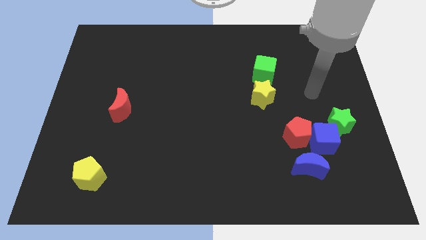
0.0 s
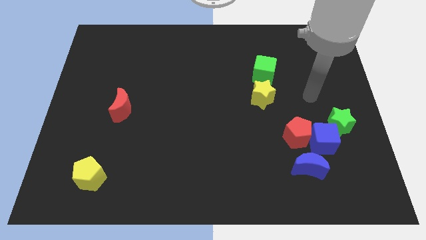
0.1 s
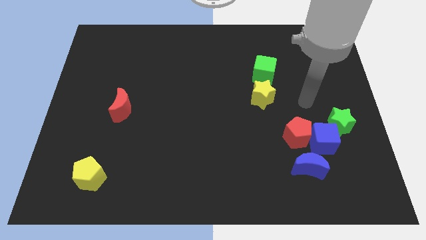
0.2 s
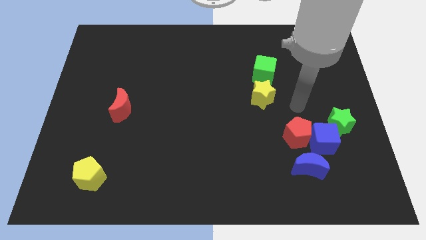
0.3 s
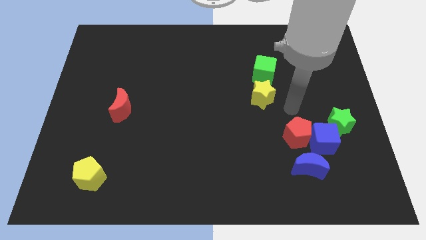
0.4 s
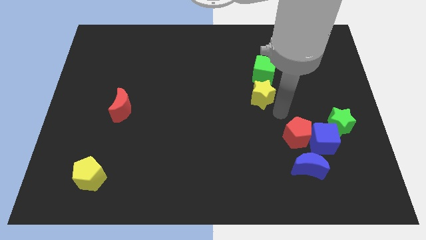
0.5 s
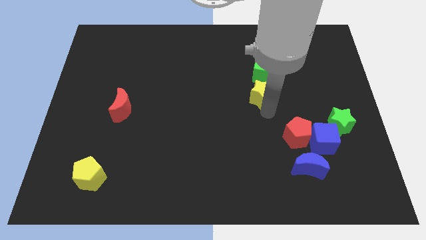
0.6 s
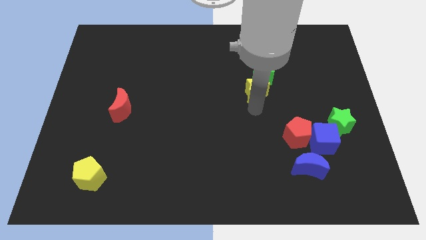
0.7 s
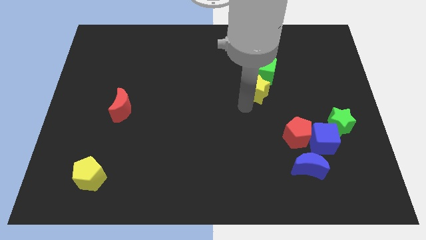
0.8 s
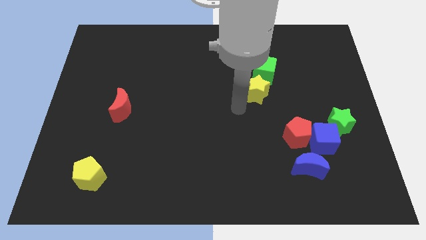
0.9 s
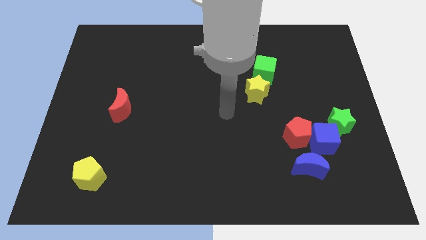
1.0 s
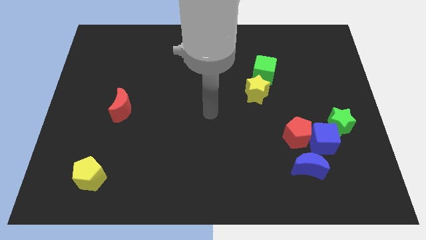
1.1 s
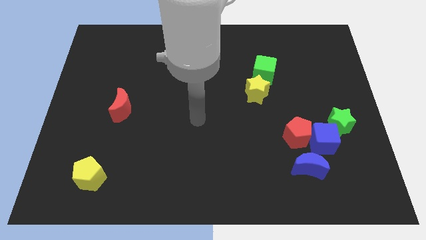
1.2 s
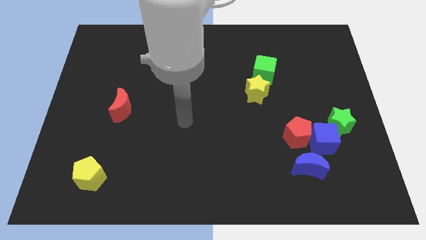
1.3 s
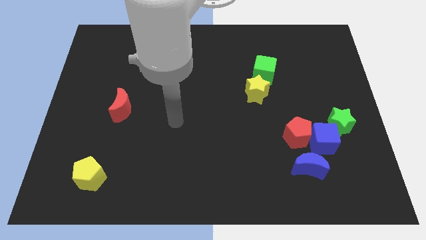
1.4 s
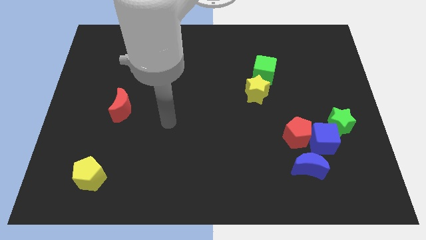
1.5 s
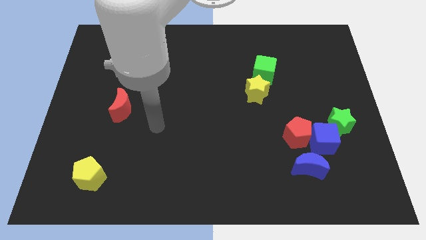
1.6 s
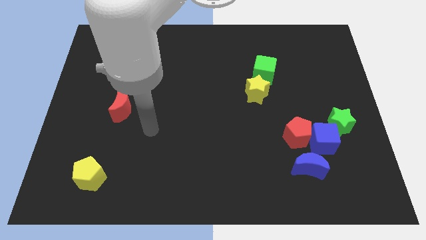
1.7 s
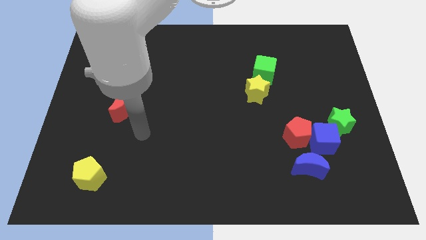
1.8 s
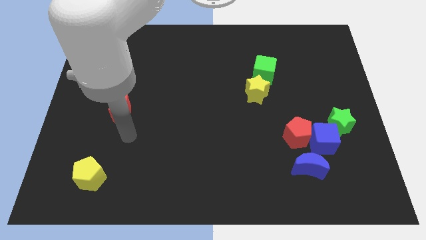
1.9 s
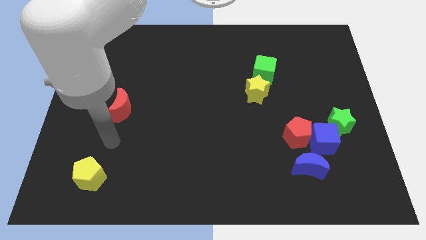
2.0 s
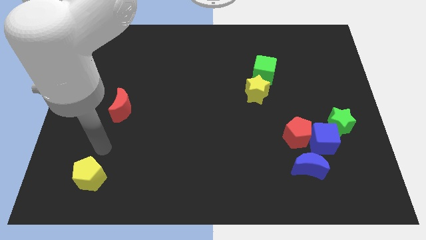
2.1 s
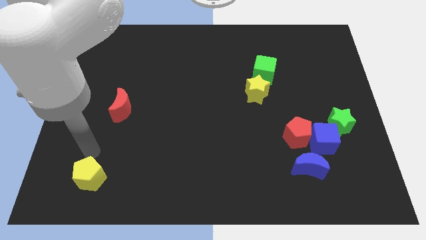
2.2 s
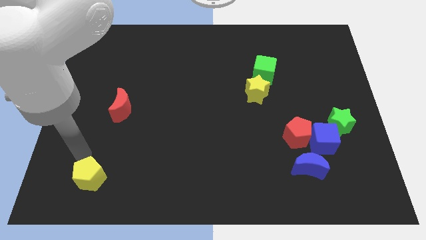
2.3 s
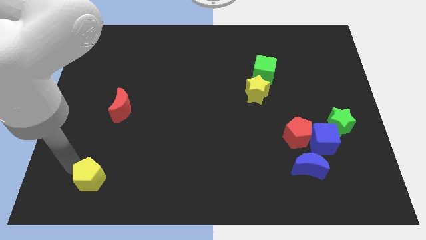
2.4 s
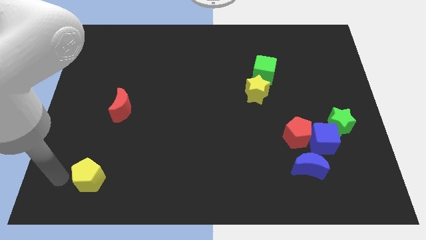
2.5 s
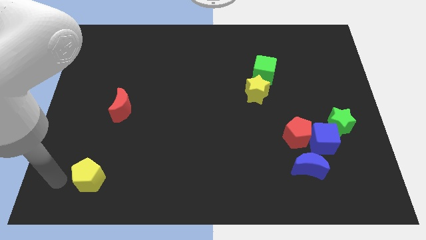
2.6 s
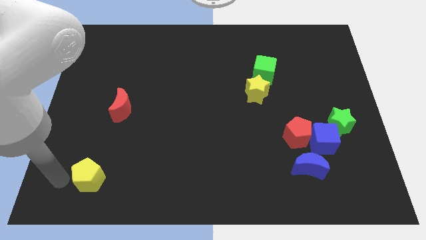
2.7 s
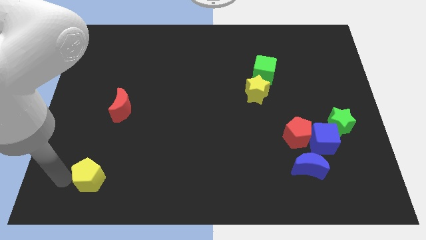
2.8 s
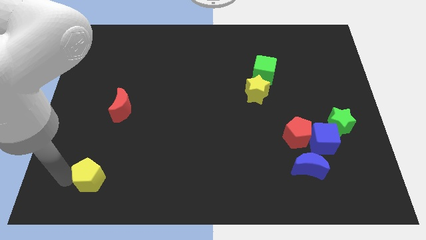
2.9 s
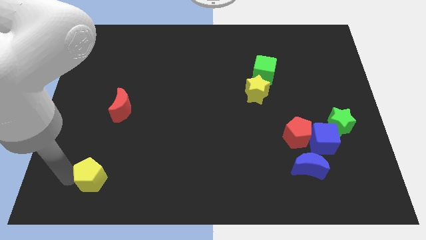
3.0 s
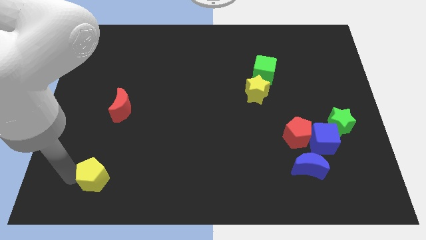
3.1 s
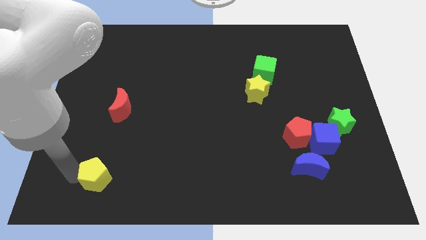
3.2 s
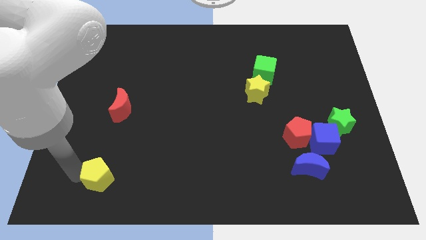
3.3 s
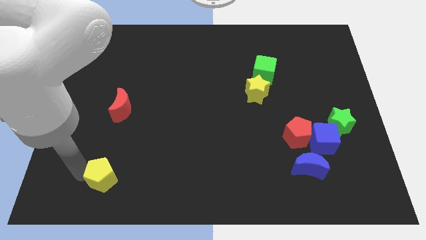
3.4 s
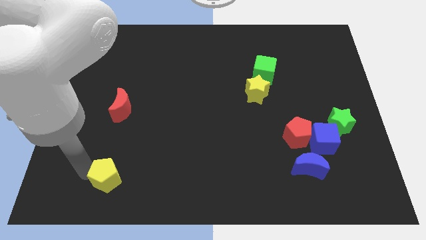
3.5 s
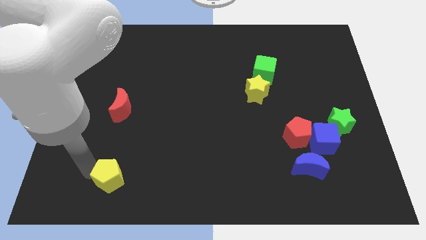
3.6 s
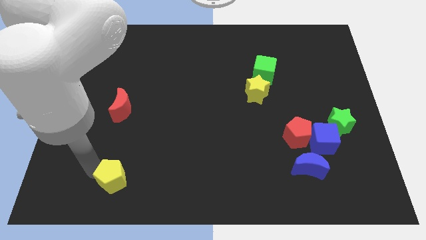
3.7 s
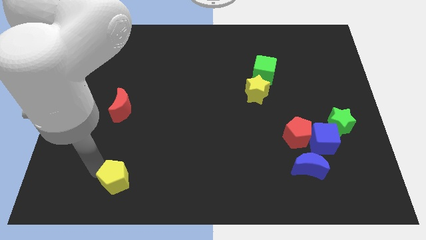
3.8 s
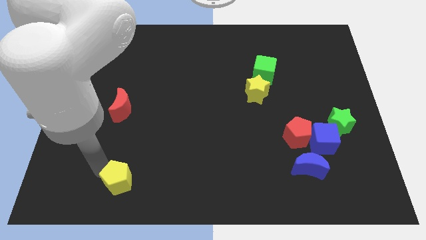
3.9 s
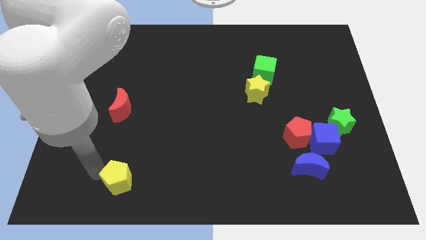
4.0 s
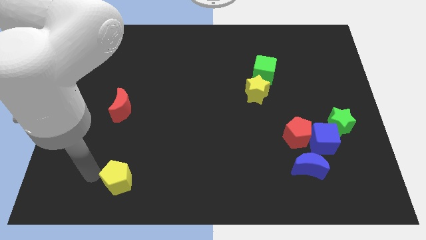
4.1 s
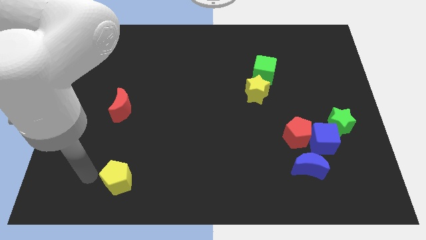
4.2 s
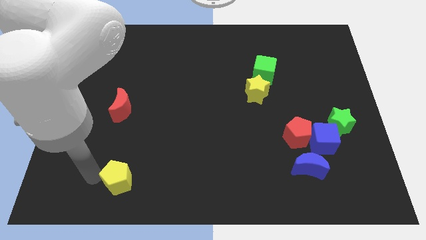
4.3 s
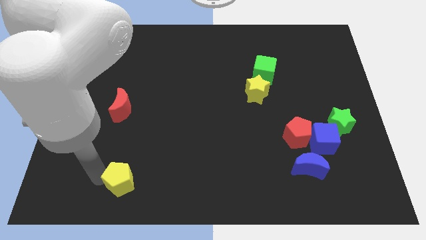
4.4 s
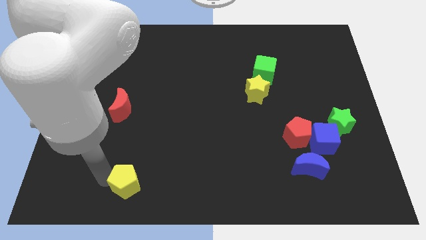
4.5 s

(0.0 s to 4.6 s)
slightly slide the yellow pentagon to the right

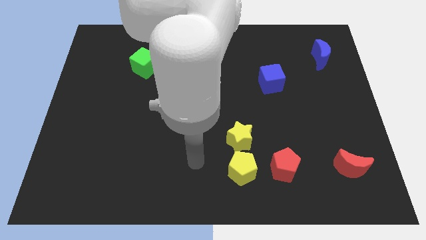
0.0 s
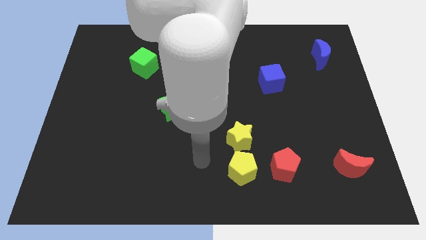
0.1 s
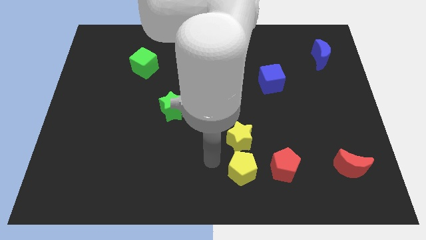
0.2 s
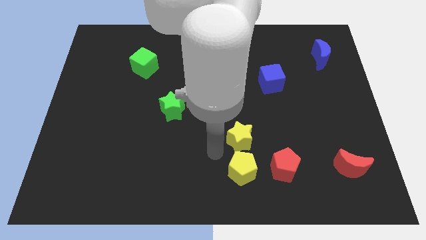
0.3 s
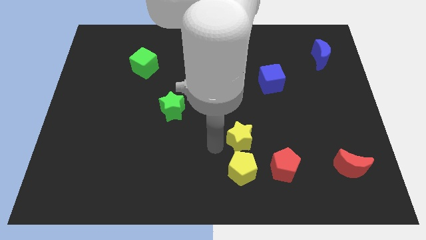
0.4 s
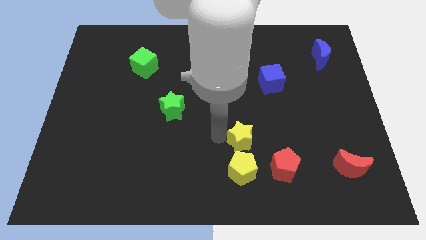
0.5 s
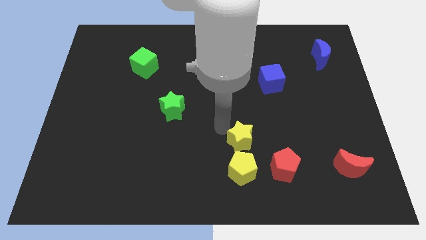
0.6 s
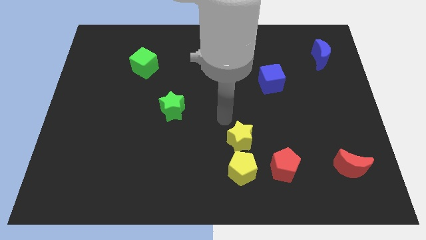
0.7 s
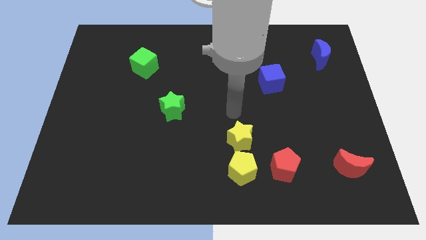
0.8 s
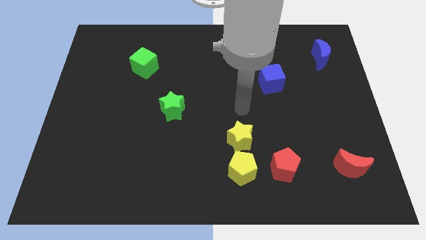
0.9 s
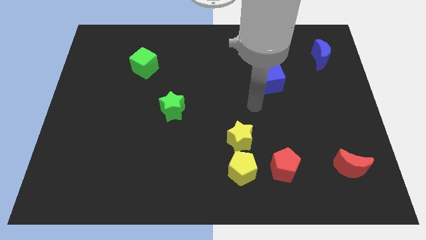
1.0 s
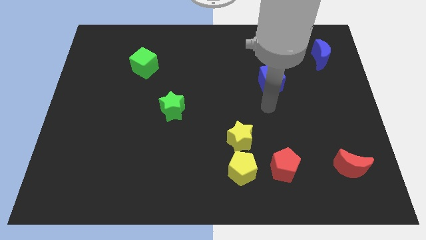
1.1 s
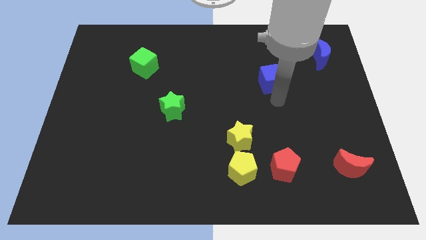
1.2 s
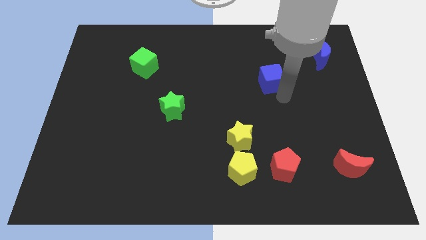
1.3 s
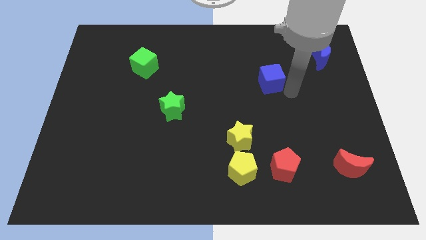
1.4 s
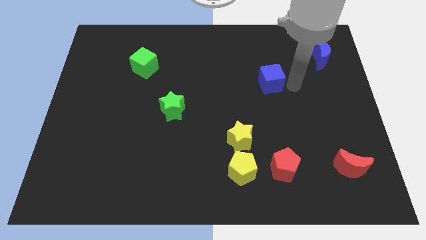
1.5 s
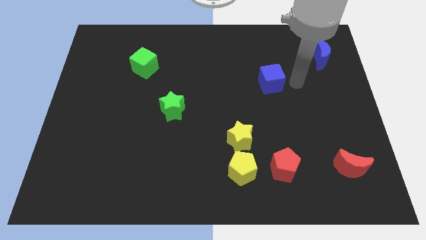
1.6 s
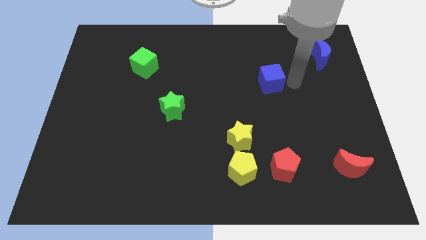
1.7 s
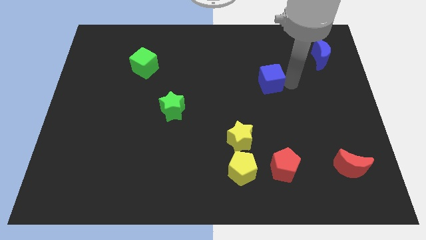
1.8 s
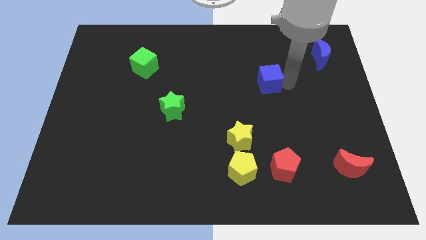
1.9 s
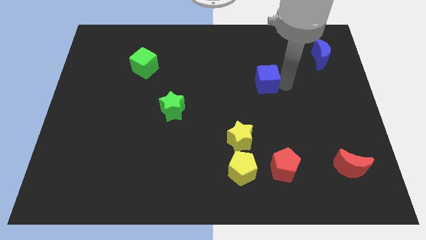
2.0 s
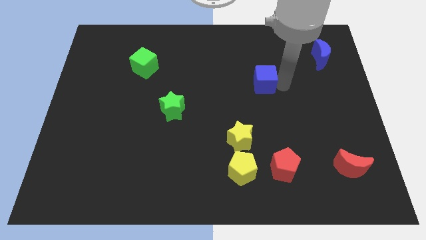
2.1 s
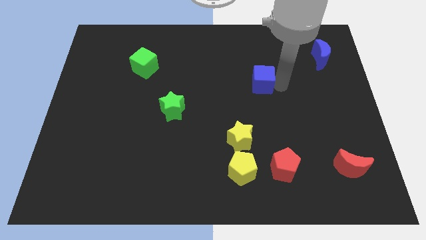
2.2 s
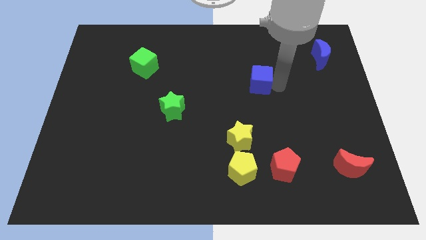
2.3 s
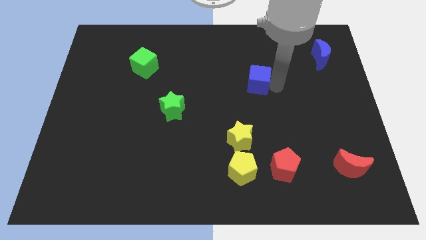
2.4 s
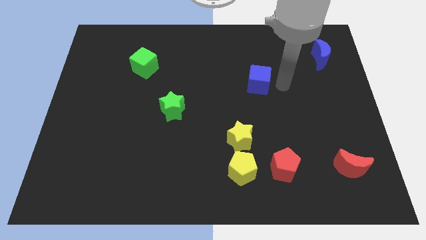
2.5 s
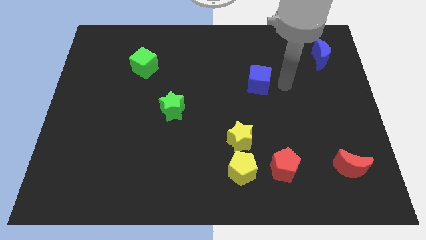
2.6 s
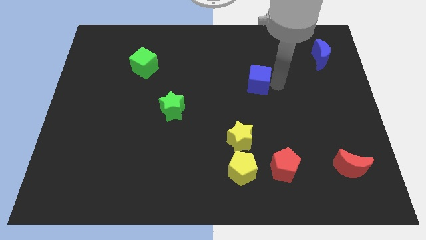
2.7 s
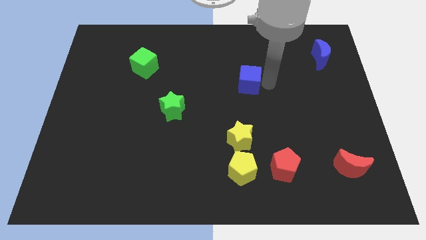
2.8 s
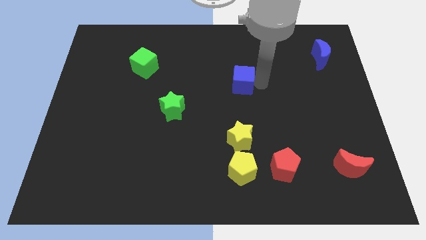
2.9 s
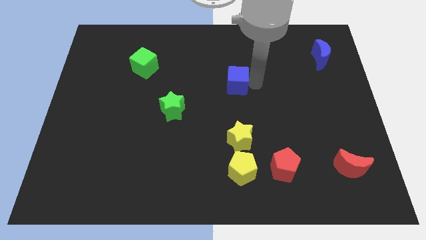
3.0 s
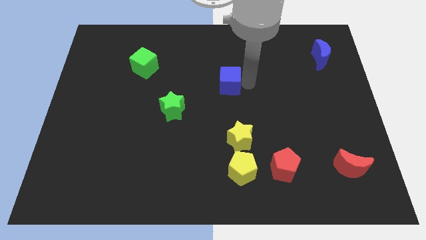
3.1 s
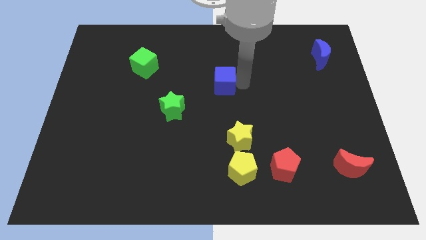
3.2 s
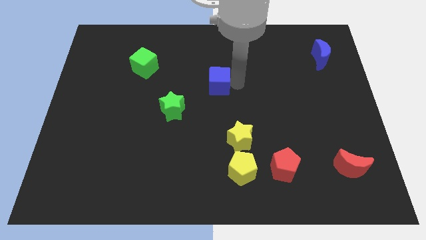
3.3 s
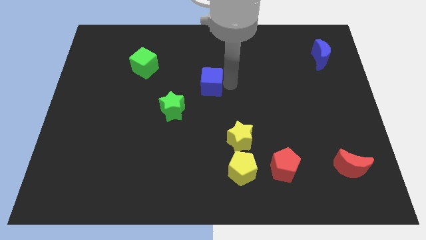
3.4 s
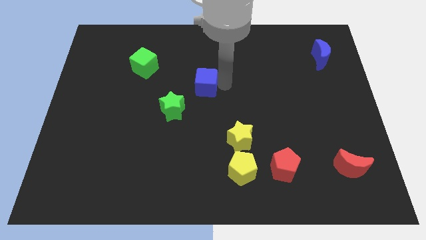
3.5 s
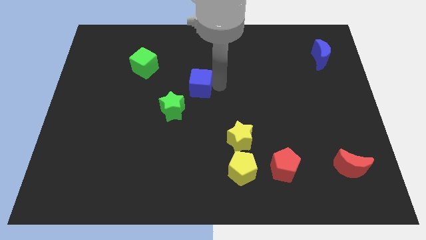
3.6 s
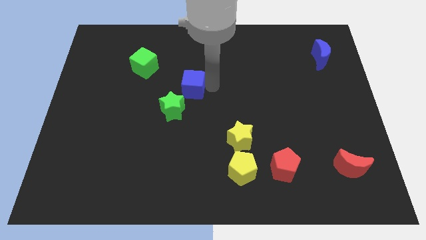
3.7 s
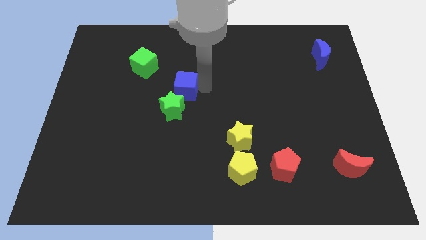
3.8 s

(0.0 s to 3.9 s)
move the blue cube to the left

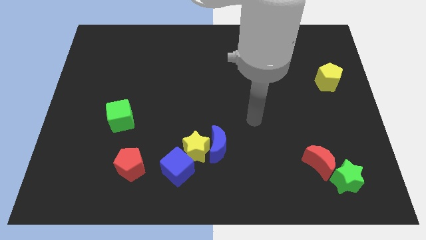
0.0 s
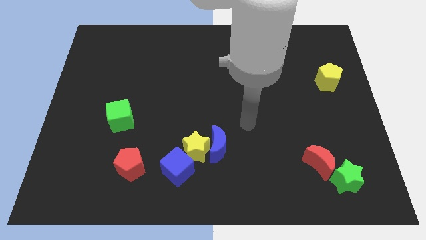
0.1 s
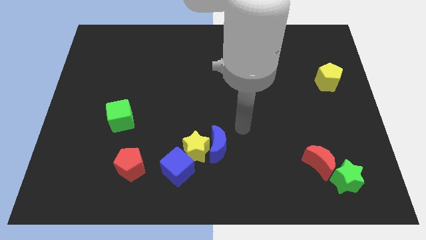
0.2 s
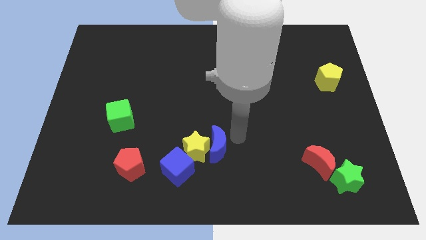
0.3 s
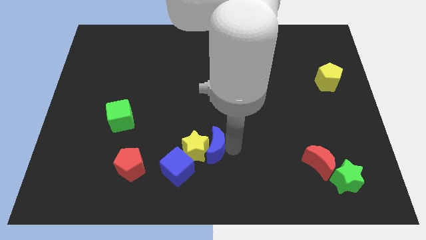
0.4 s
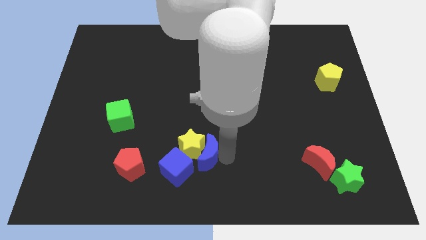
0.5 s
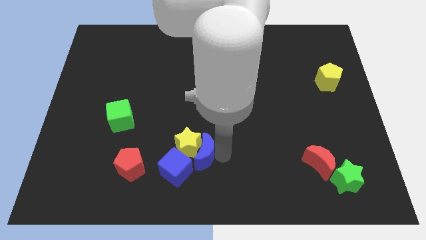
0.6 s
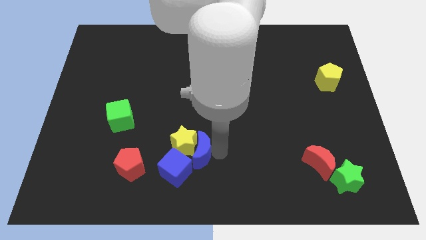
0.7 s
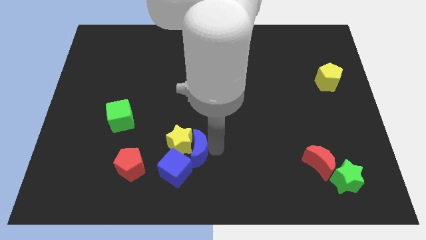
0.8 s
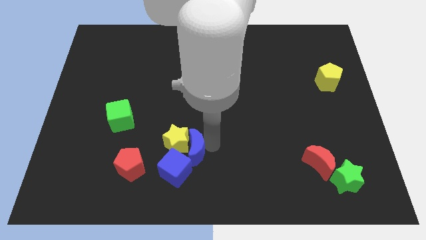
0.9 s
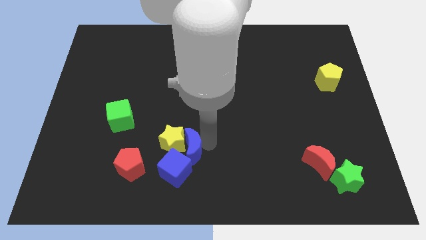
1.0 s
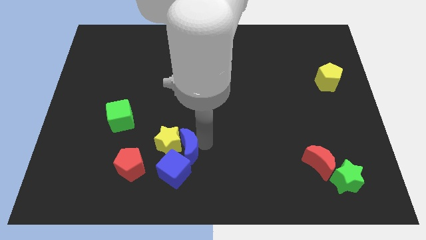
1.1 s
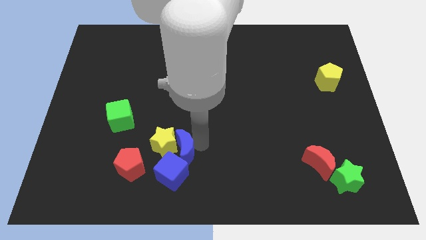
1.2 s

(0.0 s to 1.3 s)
slide the yellow star to the left somewhat
